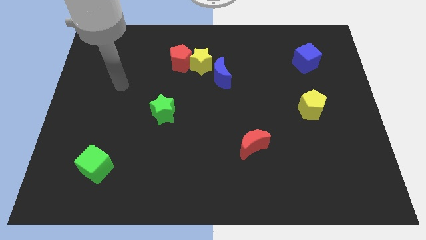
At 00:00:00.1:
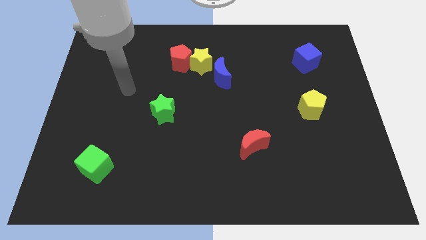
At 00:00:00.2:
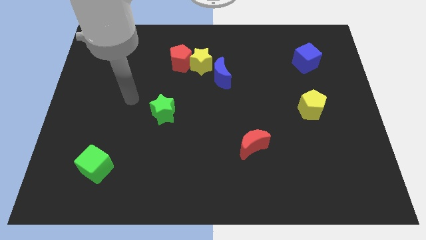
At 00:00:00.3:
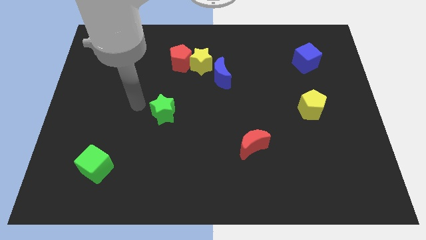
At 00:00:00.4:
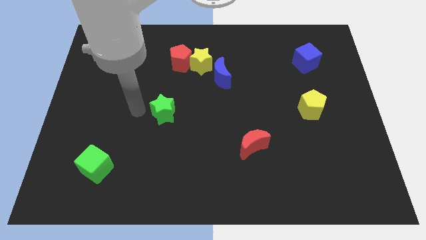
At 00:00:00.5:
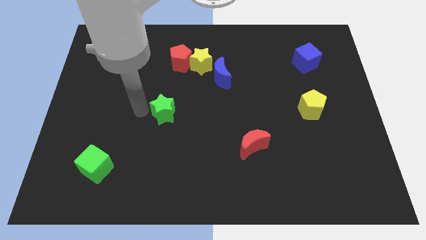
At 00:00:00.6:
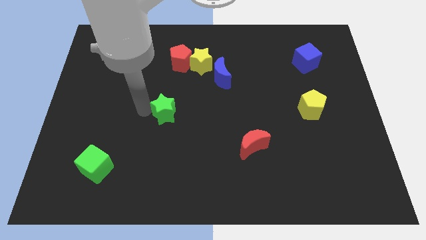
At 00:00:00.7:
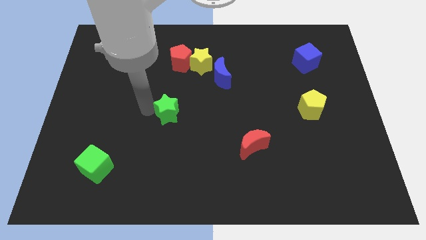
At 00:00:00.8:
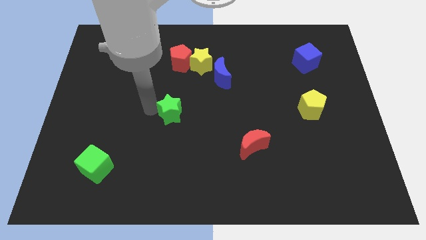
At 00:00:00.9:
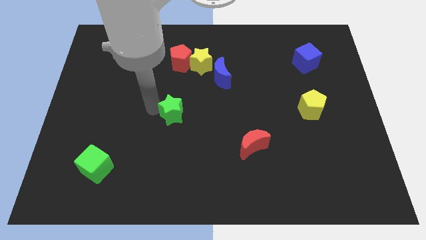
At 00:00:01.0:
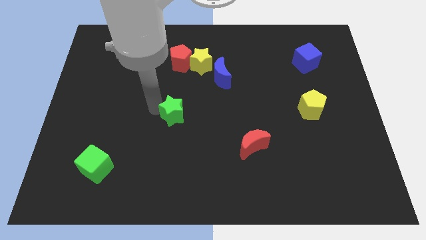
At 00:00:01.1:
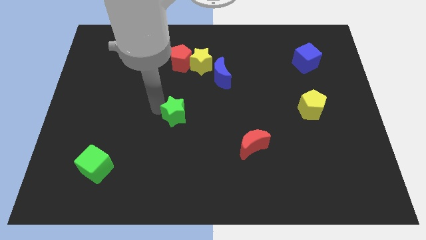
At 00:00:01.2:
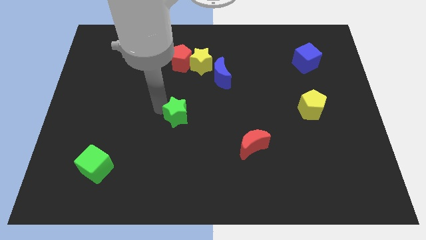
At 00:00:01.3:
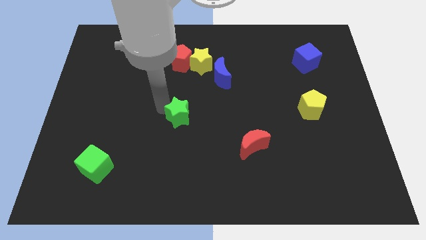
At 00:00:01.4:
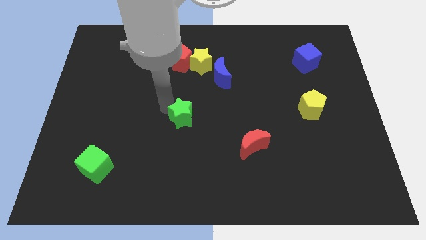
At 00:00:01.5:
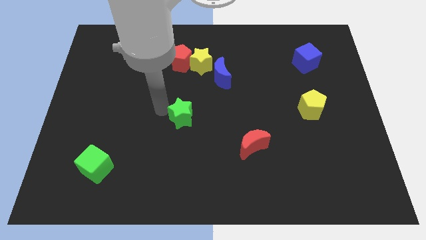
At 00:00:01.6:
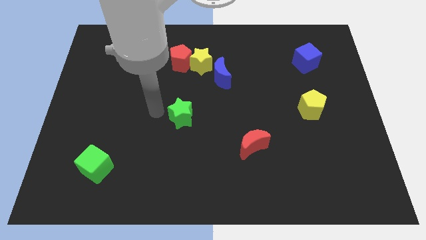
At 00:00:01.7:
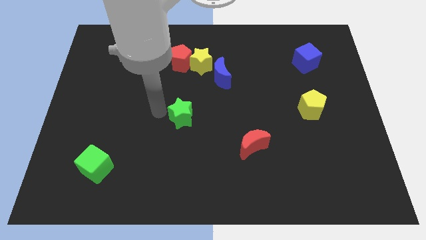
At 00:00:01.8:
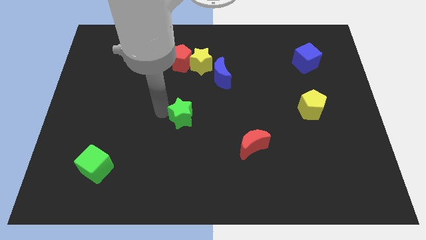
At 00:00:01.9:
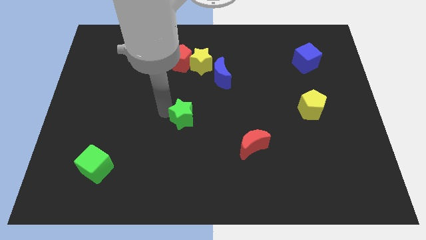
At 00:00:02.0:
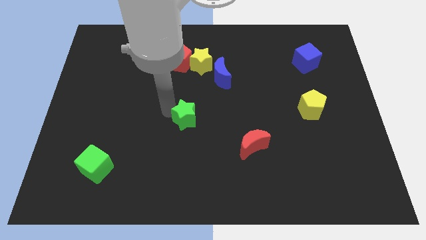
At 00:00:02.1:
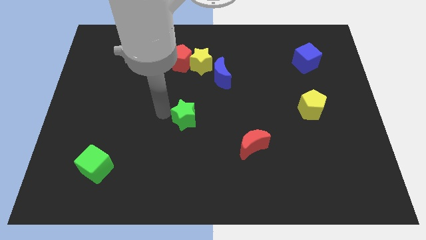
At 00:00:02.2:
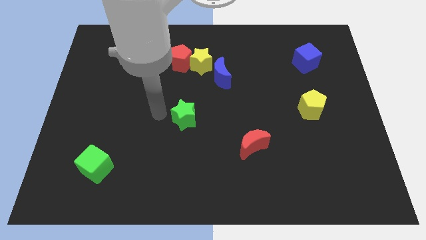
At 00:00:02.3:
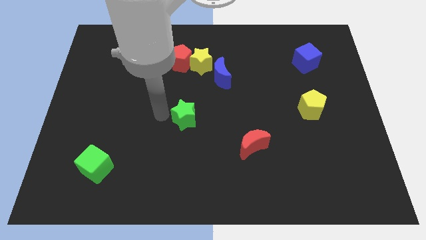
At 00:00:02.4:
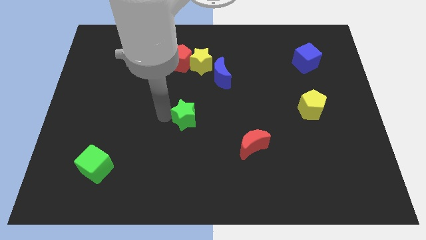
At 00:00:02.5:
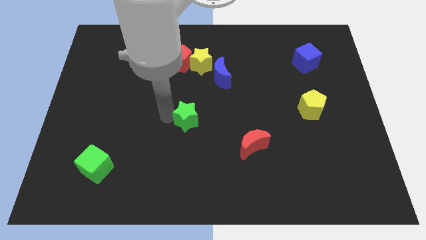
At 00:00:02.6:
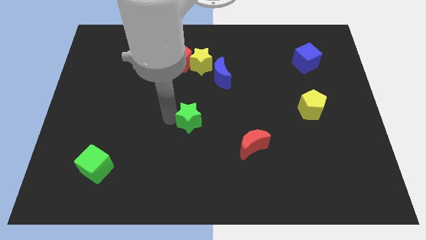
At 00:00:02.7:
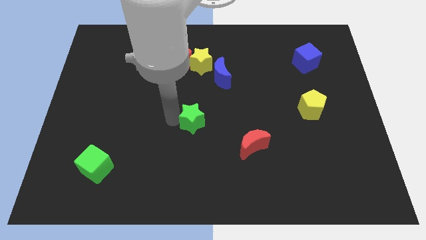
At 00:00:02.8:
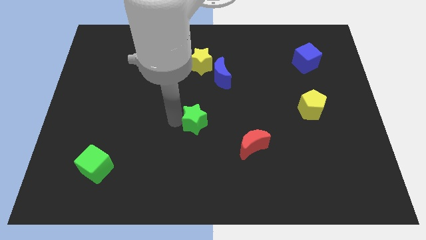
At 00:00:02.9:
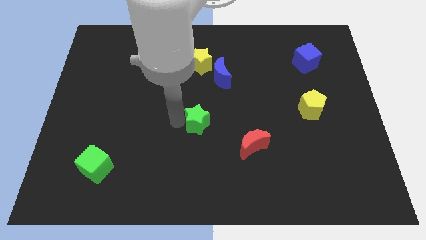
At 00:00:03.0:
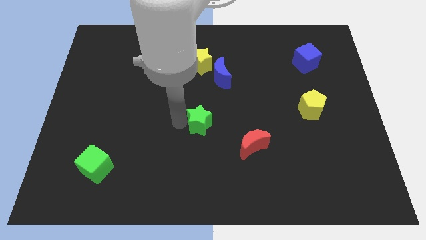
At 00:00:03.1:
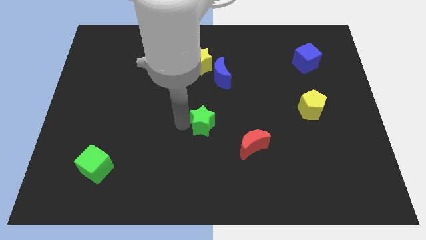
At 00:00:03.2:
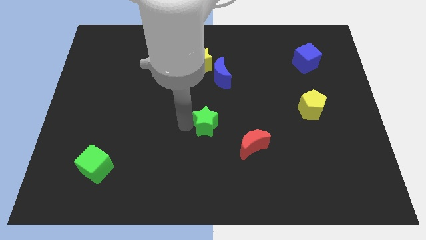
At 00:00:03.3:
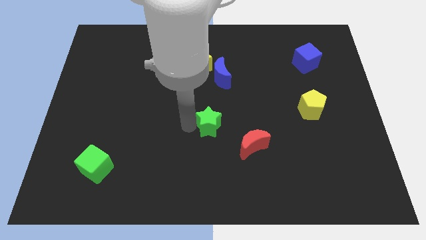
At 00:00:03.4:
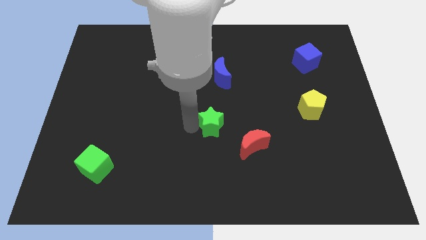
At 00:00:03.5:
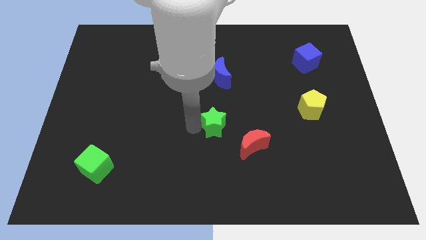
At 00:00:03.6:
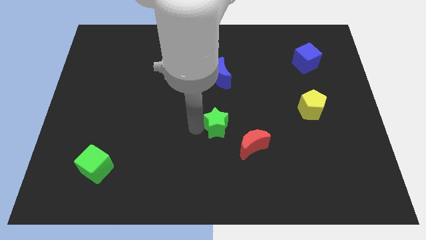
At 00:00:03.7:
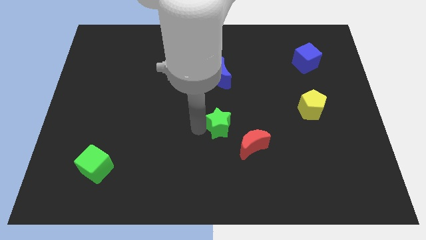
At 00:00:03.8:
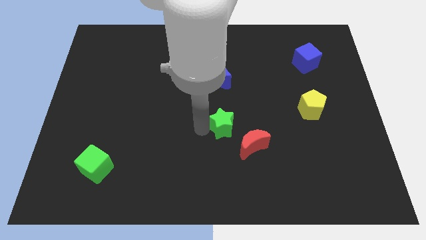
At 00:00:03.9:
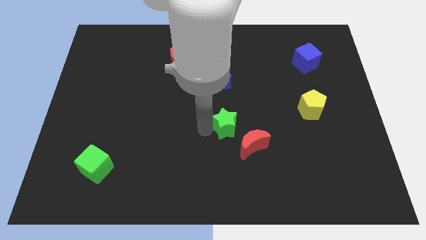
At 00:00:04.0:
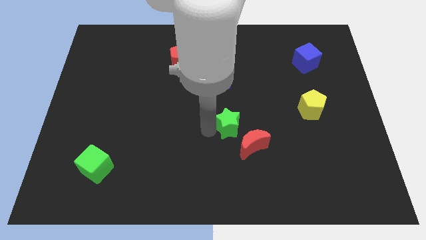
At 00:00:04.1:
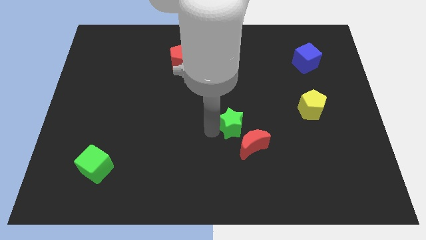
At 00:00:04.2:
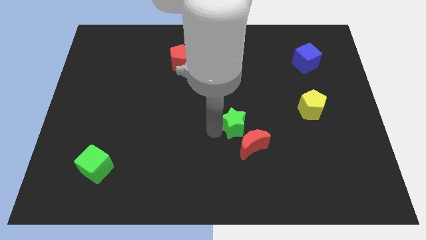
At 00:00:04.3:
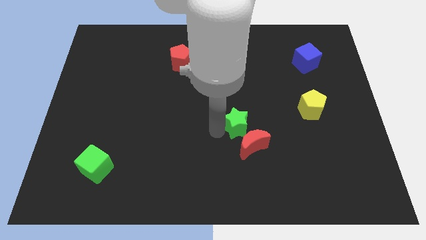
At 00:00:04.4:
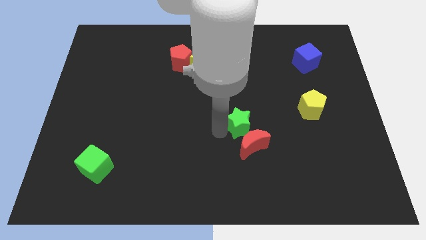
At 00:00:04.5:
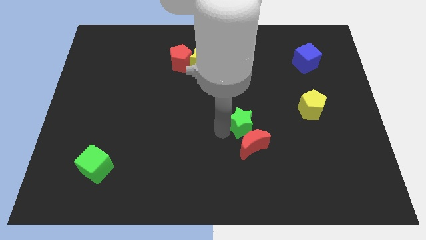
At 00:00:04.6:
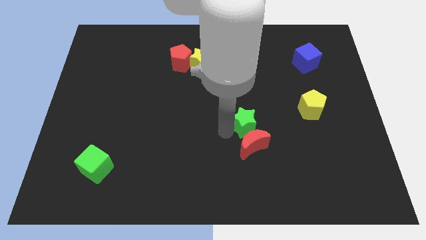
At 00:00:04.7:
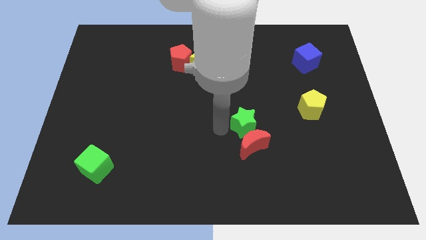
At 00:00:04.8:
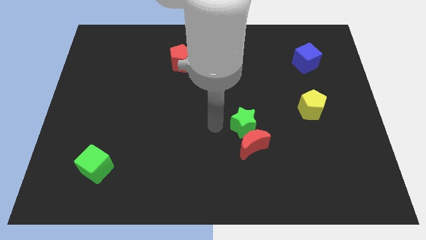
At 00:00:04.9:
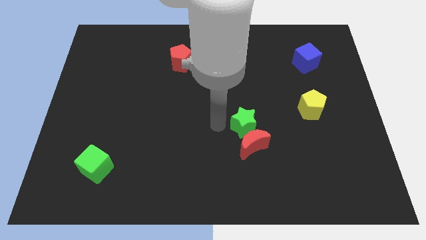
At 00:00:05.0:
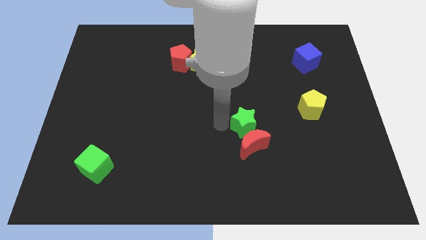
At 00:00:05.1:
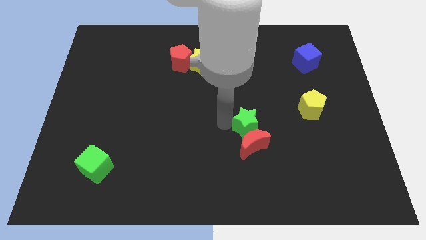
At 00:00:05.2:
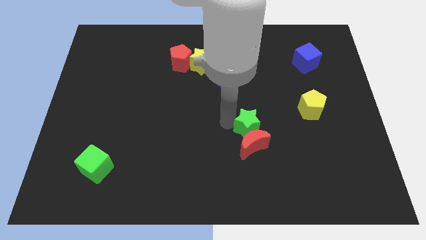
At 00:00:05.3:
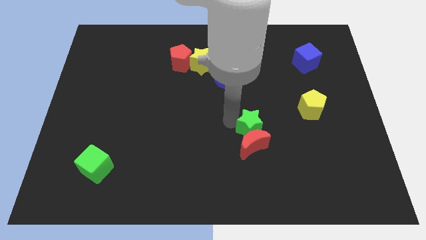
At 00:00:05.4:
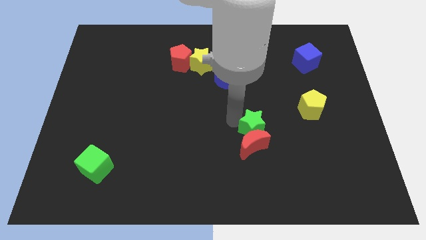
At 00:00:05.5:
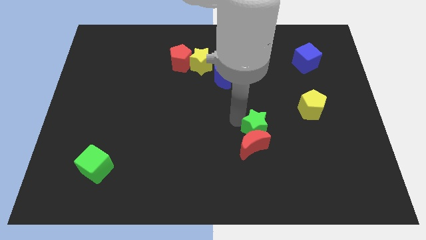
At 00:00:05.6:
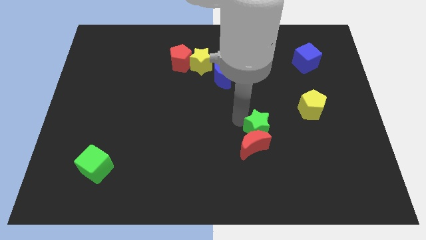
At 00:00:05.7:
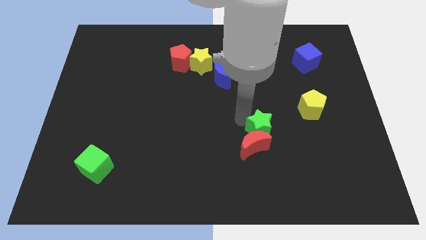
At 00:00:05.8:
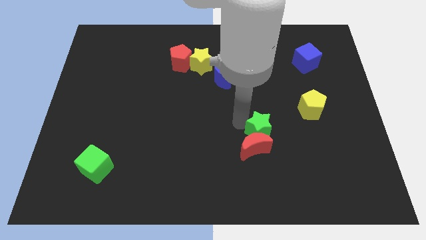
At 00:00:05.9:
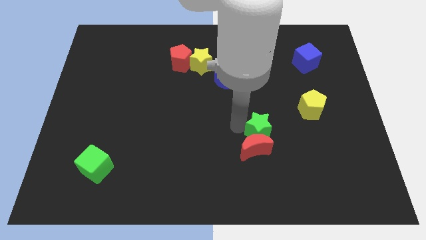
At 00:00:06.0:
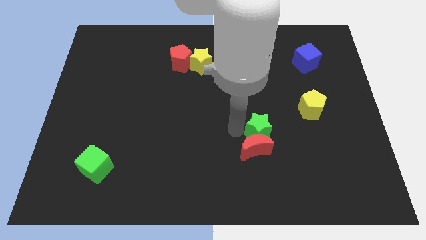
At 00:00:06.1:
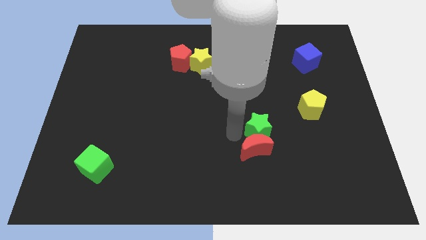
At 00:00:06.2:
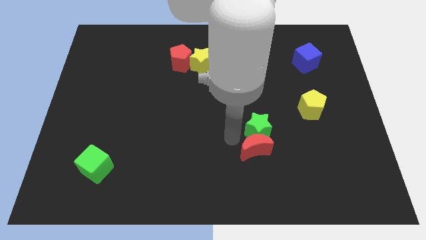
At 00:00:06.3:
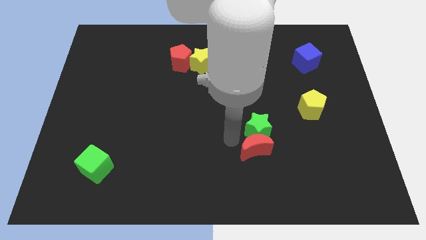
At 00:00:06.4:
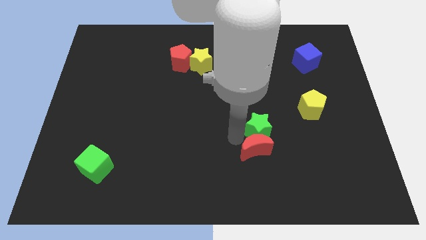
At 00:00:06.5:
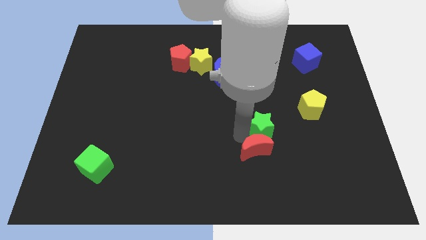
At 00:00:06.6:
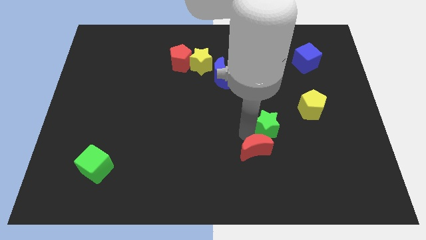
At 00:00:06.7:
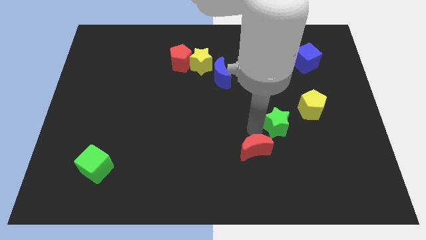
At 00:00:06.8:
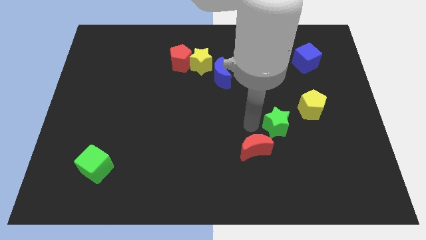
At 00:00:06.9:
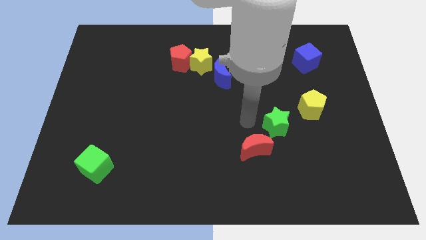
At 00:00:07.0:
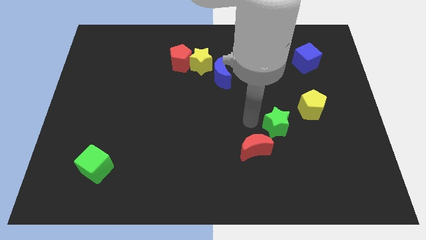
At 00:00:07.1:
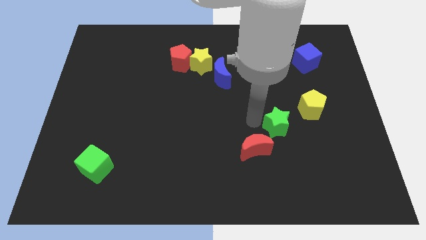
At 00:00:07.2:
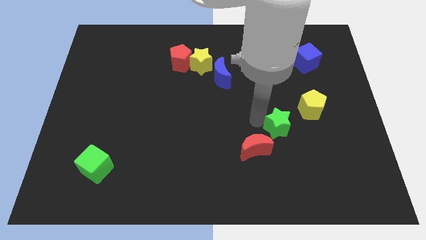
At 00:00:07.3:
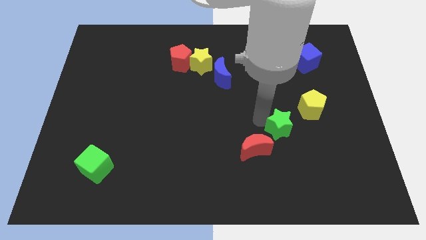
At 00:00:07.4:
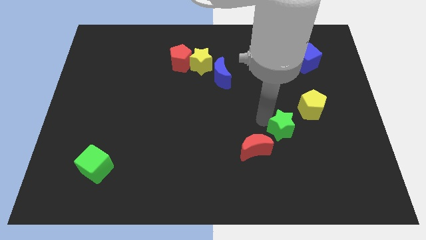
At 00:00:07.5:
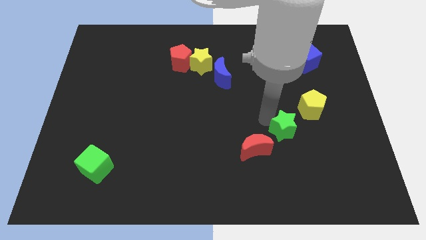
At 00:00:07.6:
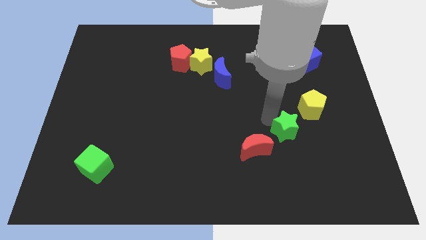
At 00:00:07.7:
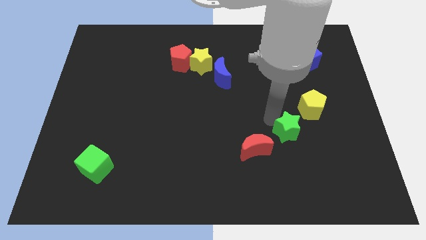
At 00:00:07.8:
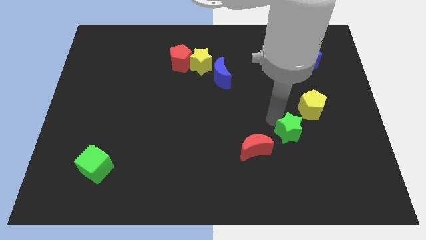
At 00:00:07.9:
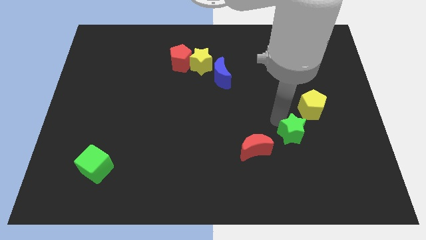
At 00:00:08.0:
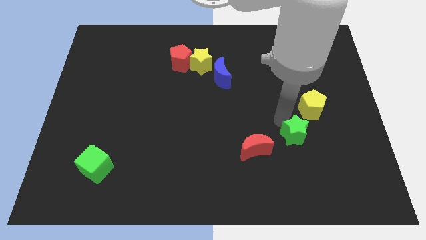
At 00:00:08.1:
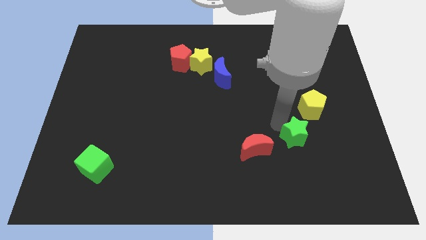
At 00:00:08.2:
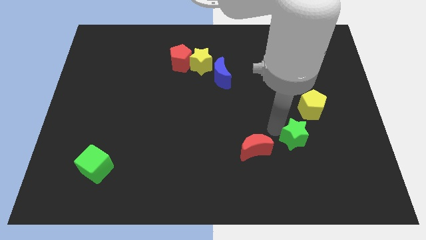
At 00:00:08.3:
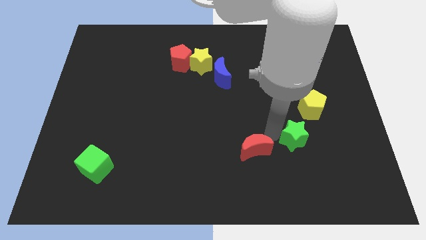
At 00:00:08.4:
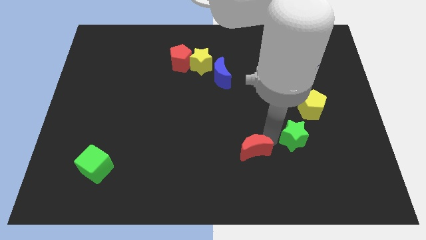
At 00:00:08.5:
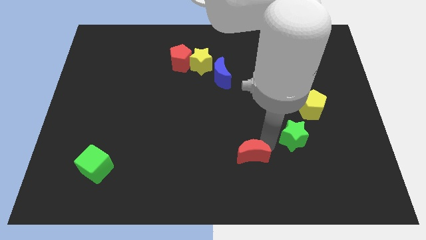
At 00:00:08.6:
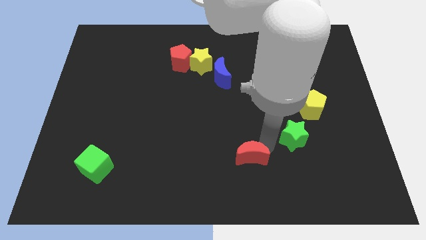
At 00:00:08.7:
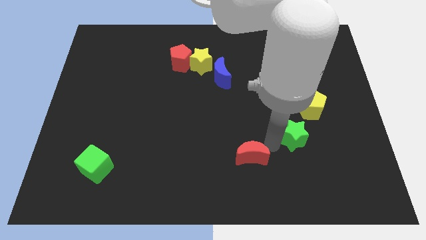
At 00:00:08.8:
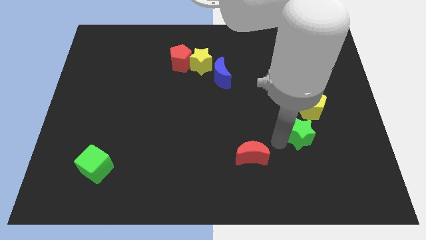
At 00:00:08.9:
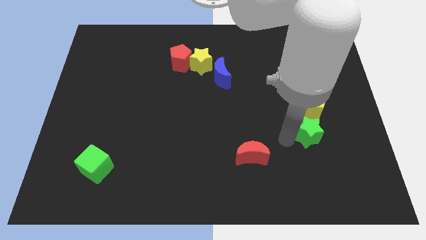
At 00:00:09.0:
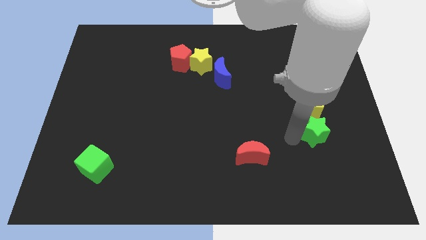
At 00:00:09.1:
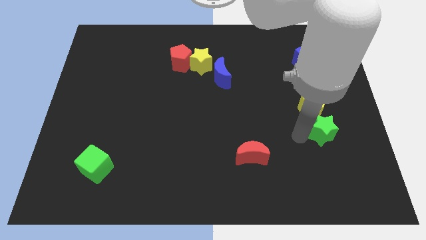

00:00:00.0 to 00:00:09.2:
put the green star diagonally down and to the right of the yellow pentagon
